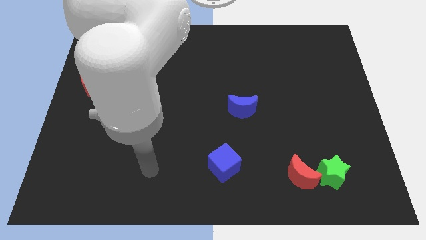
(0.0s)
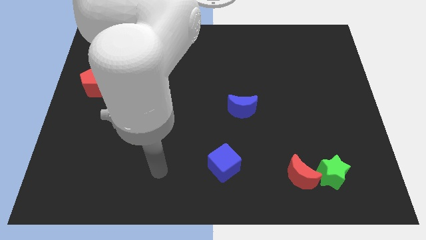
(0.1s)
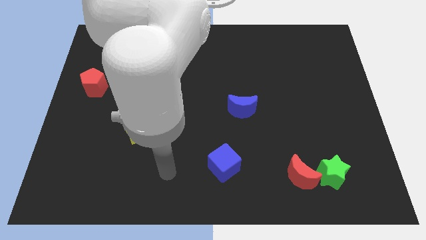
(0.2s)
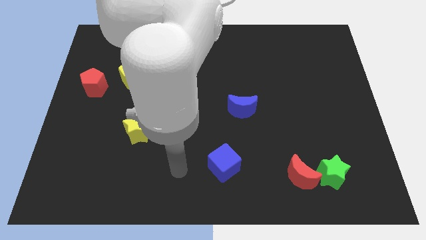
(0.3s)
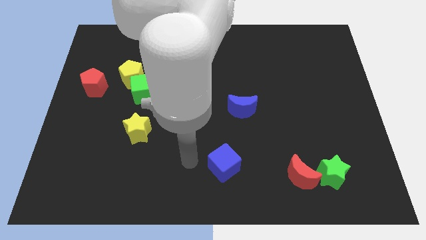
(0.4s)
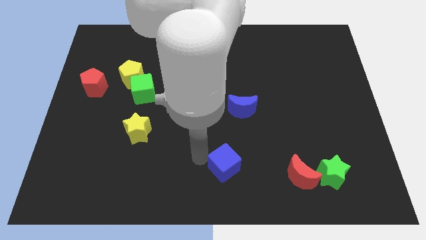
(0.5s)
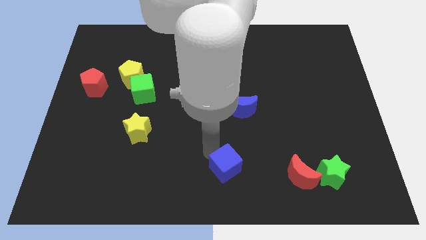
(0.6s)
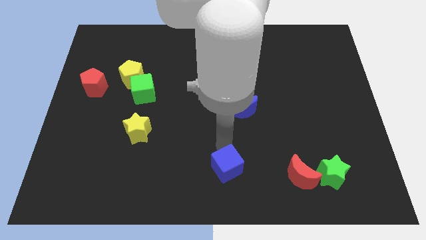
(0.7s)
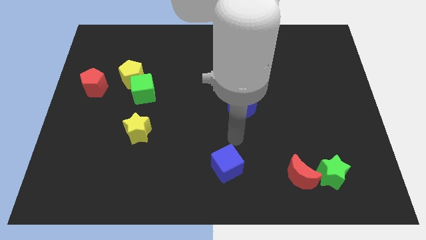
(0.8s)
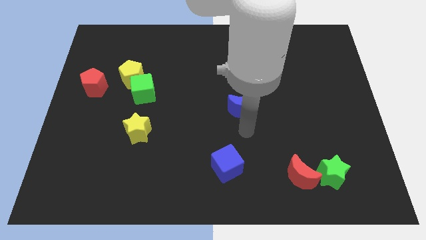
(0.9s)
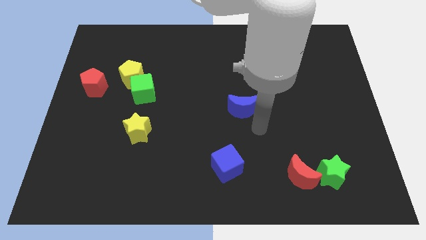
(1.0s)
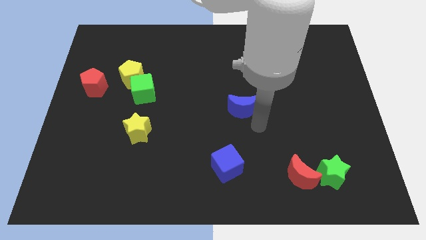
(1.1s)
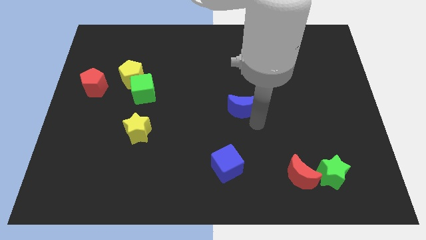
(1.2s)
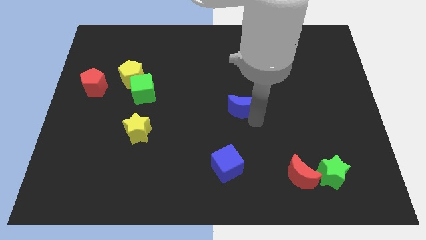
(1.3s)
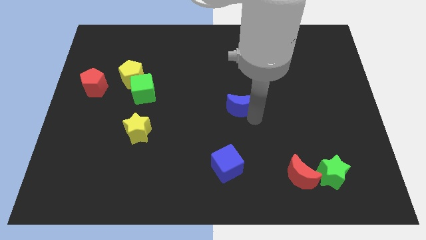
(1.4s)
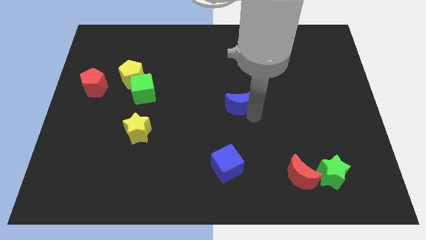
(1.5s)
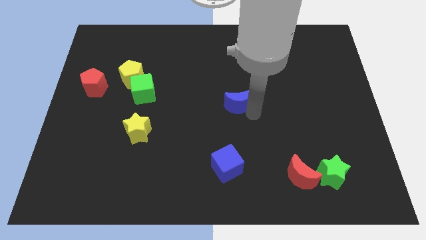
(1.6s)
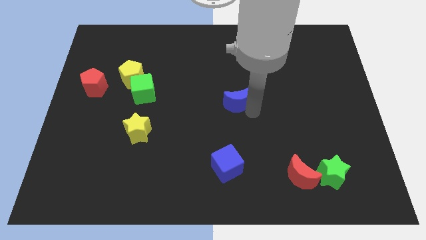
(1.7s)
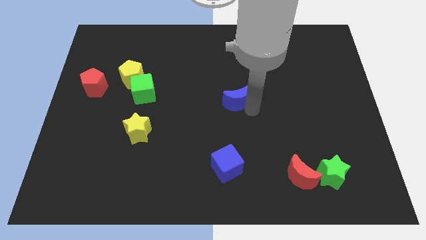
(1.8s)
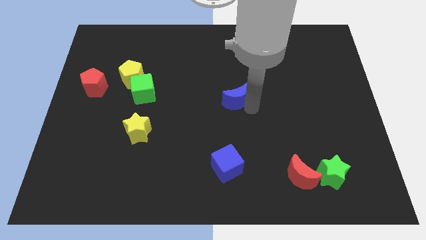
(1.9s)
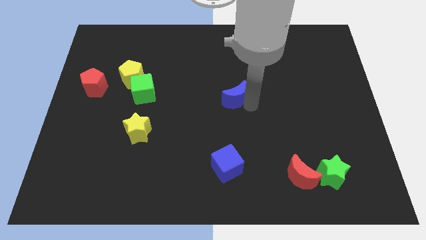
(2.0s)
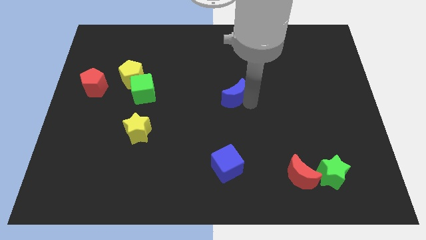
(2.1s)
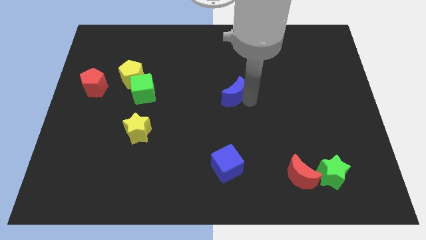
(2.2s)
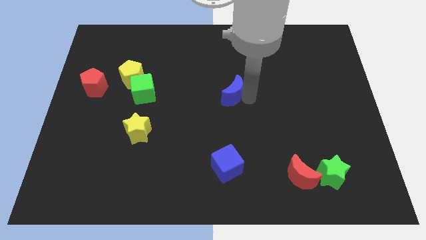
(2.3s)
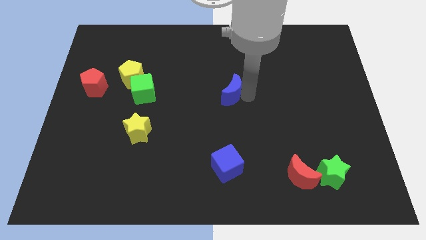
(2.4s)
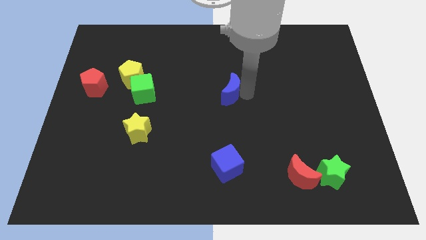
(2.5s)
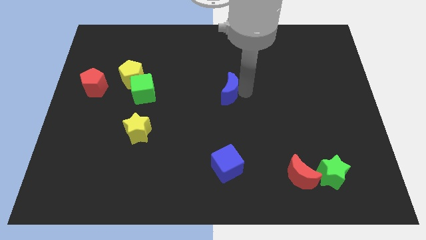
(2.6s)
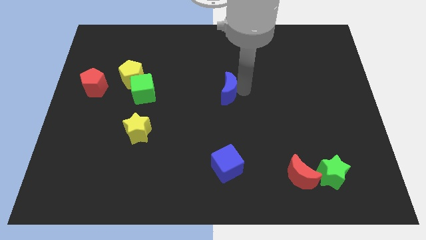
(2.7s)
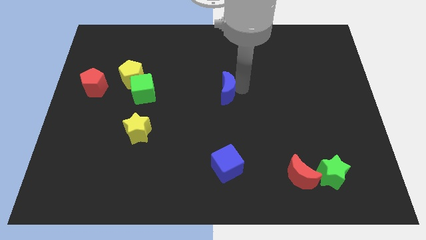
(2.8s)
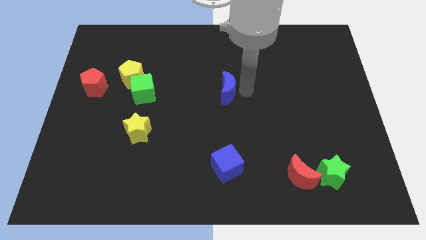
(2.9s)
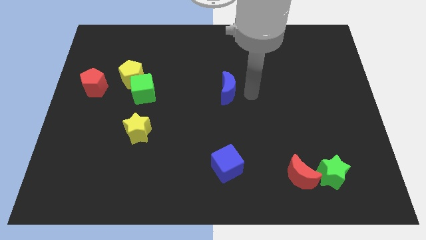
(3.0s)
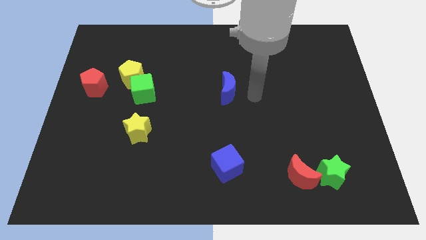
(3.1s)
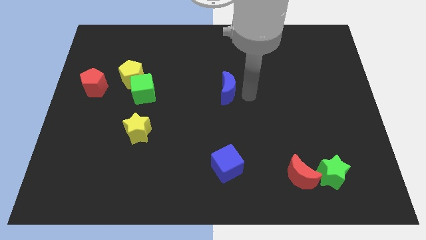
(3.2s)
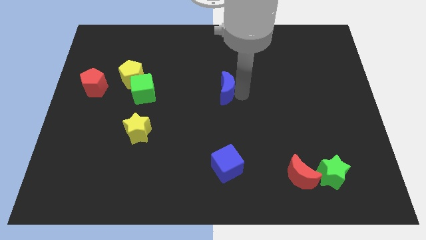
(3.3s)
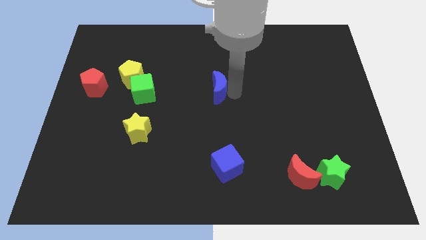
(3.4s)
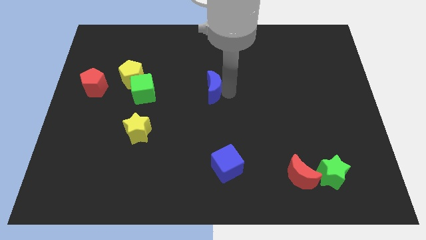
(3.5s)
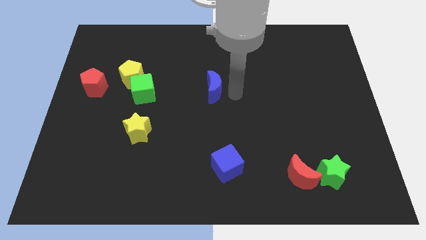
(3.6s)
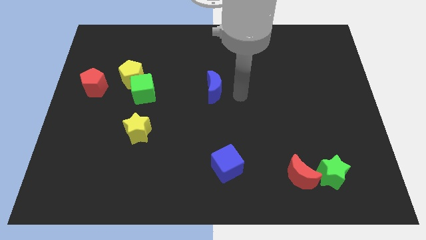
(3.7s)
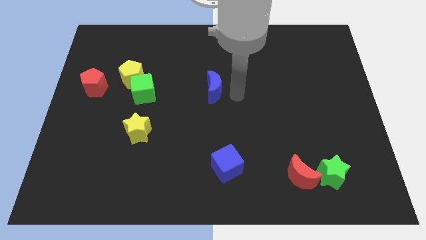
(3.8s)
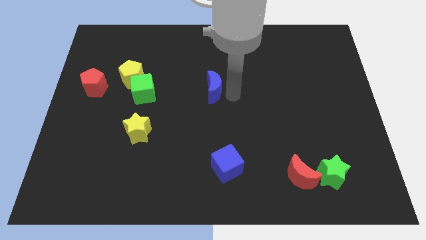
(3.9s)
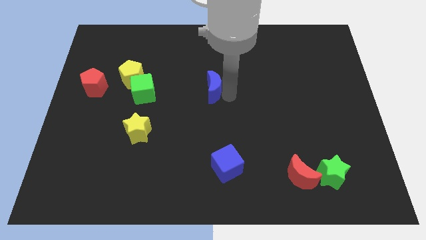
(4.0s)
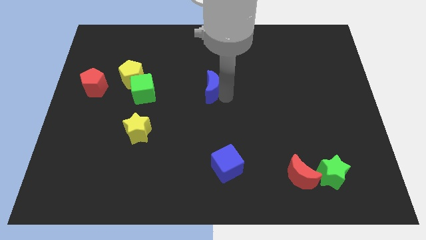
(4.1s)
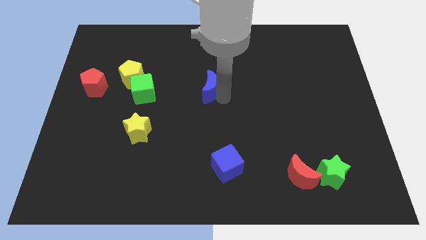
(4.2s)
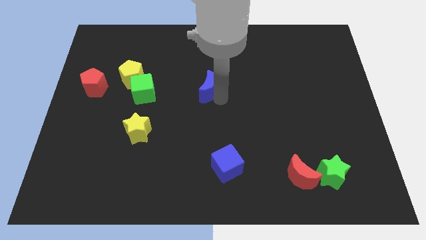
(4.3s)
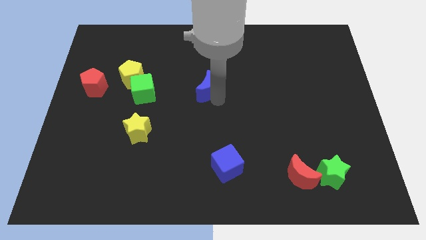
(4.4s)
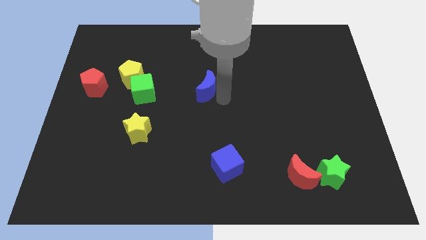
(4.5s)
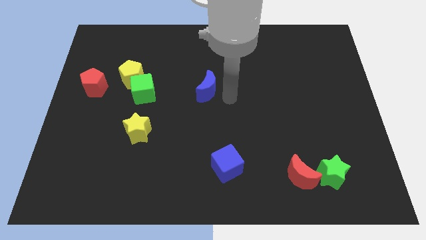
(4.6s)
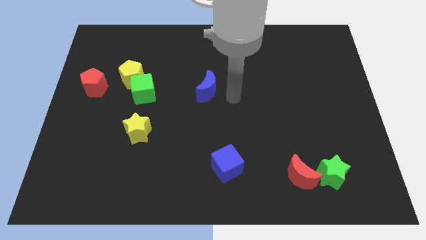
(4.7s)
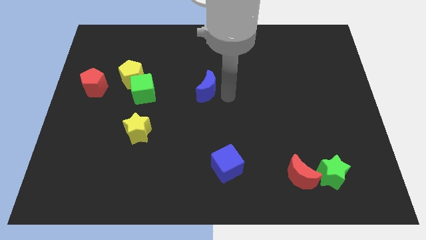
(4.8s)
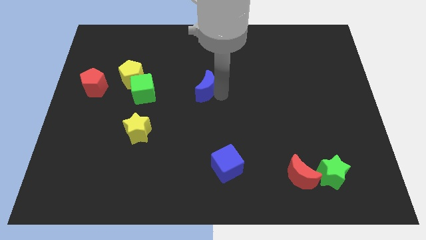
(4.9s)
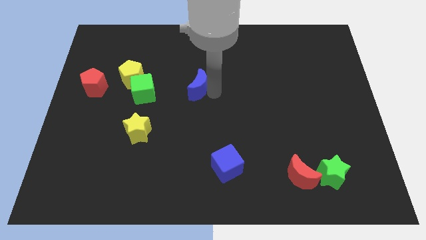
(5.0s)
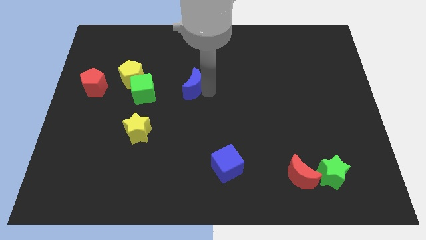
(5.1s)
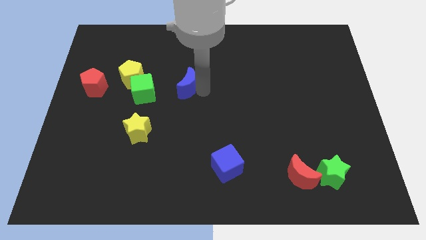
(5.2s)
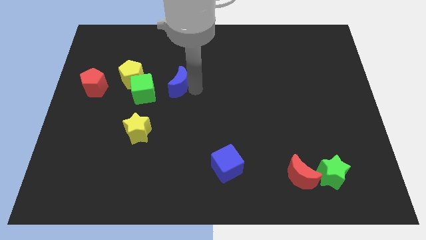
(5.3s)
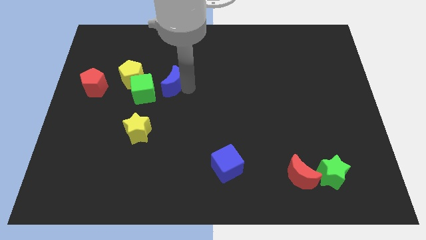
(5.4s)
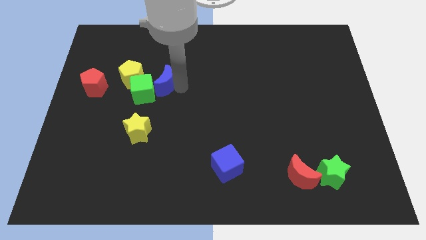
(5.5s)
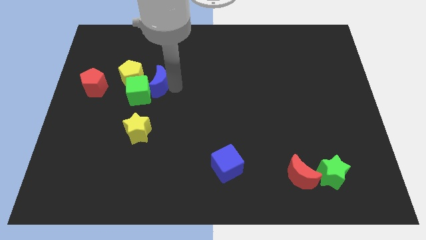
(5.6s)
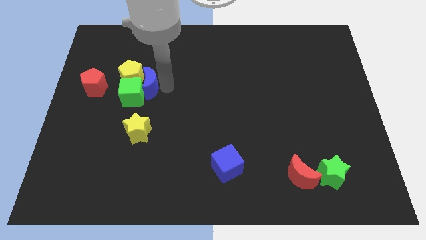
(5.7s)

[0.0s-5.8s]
slide the blue moon close to the yellow pentagon

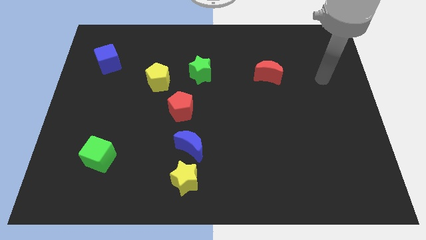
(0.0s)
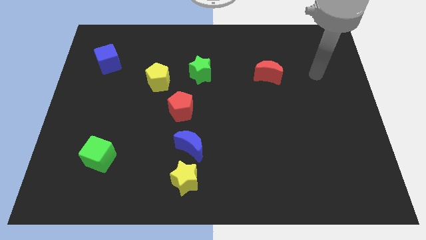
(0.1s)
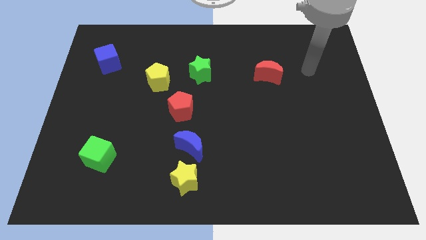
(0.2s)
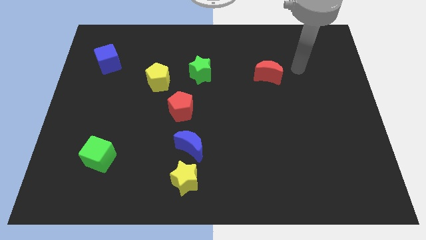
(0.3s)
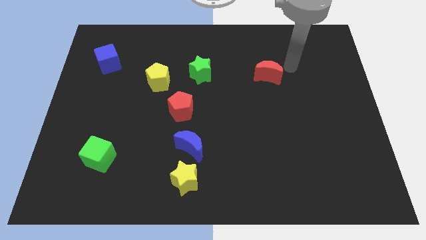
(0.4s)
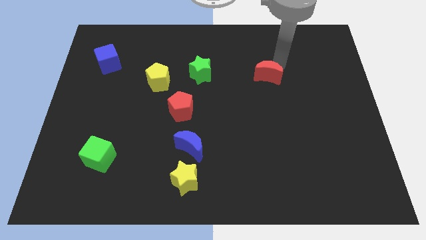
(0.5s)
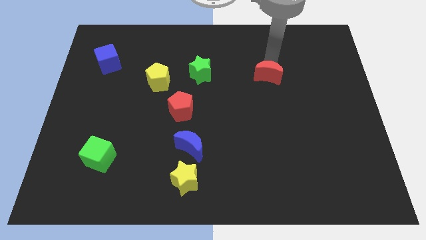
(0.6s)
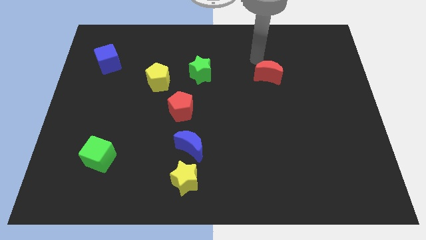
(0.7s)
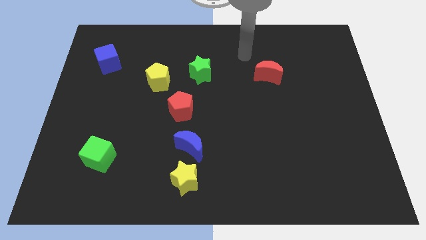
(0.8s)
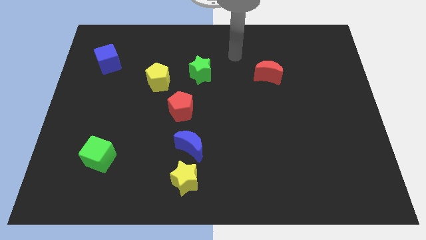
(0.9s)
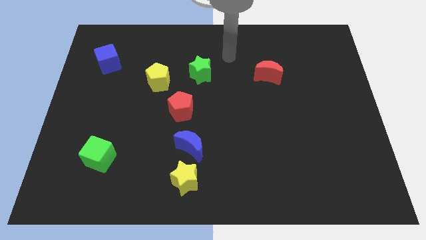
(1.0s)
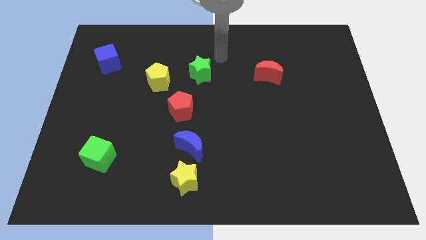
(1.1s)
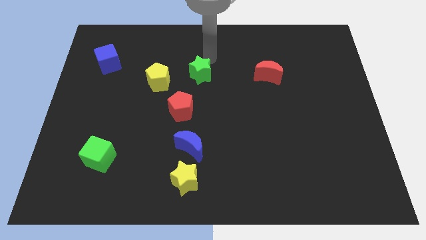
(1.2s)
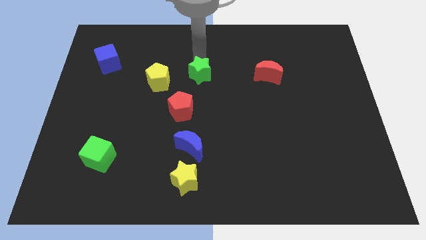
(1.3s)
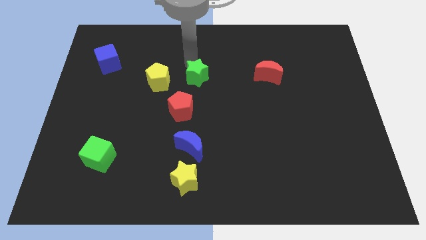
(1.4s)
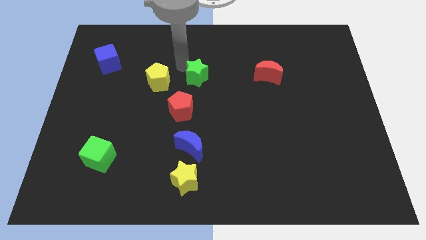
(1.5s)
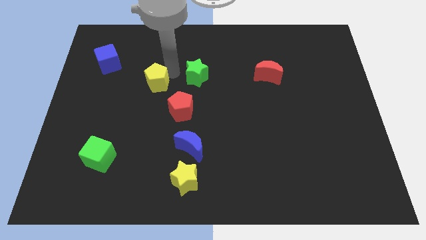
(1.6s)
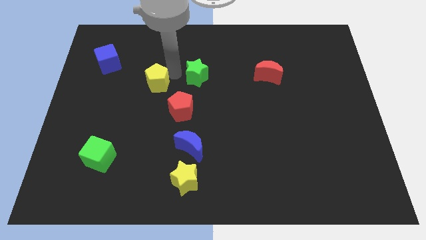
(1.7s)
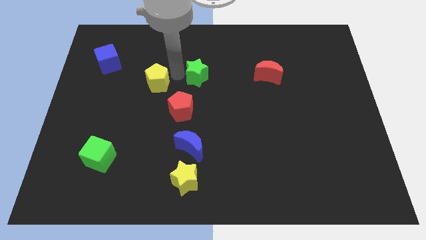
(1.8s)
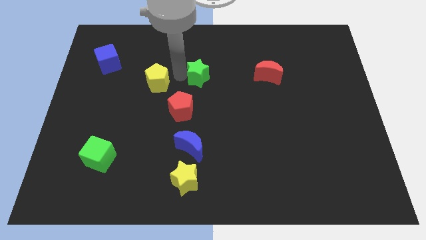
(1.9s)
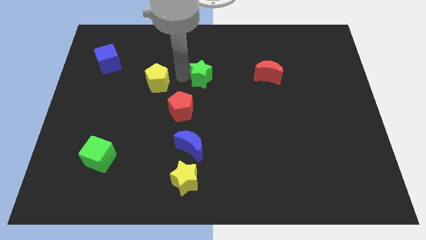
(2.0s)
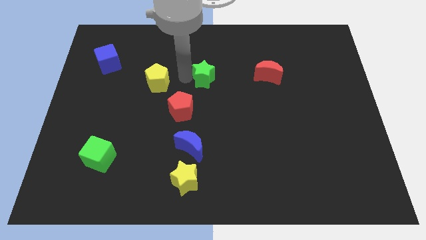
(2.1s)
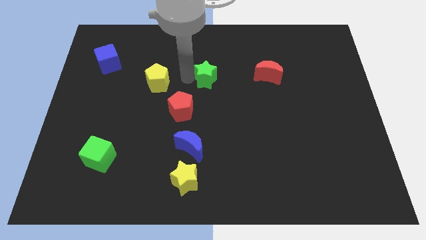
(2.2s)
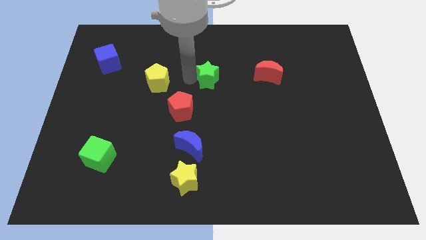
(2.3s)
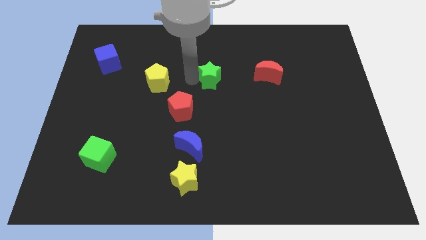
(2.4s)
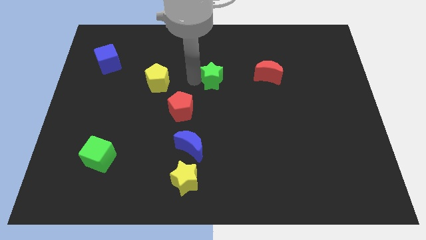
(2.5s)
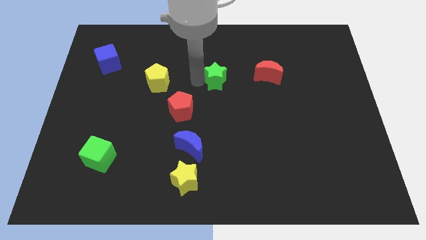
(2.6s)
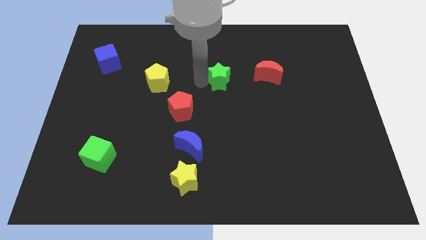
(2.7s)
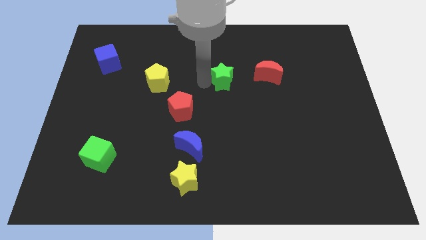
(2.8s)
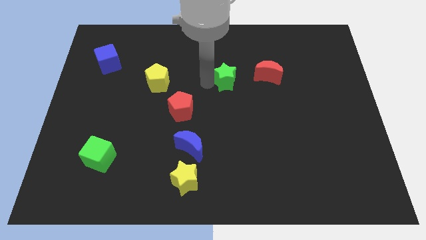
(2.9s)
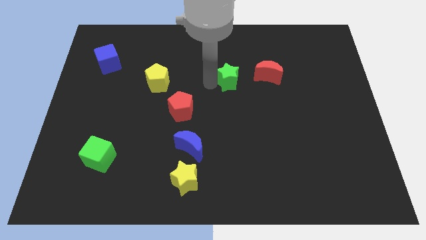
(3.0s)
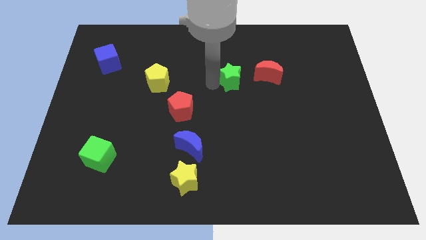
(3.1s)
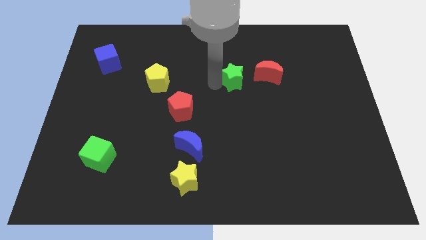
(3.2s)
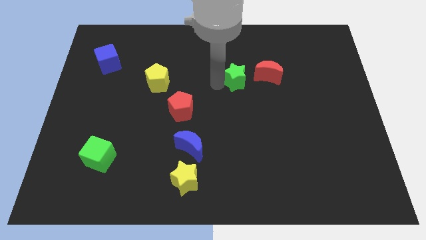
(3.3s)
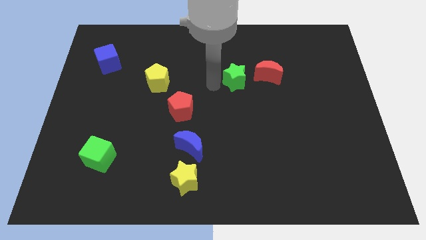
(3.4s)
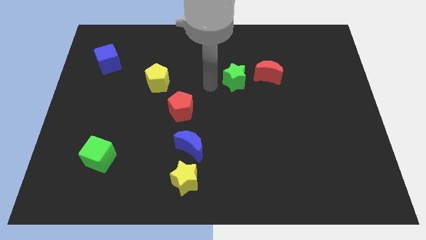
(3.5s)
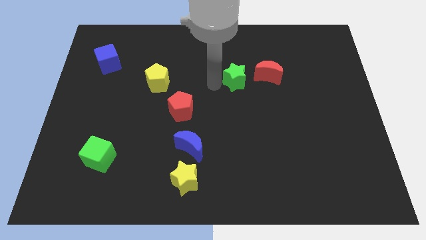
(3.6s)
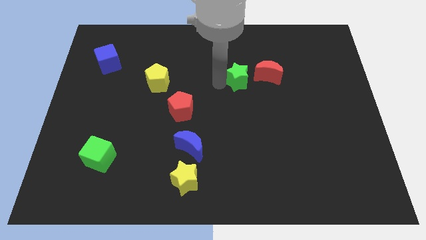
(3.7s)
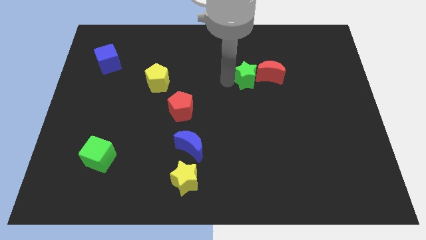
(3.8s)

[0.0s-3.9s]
push the green star next to the red moon
